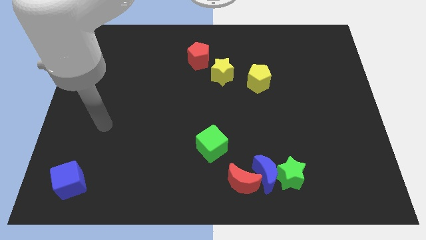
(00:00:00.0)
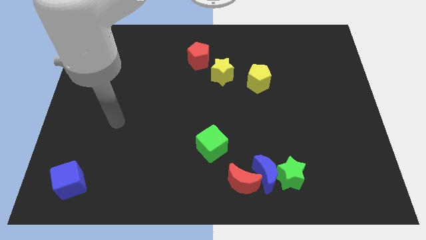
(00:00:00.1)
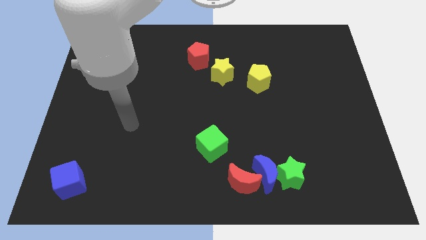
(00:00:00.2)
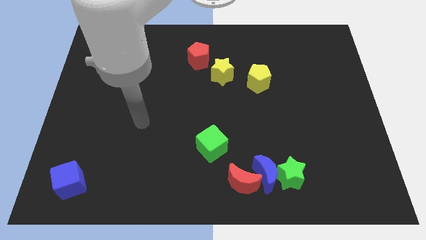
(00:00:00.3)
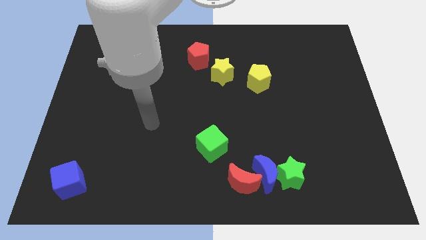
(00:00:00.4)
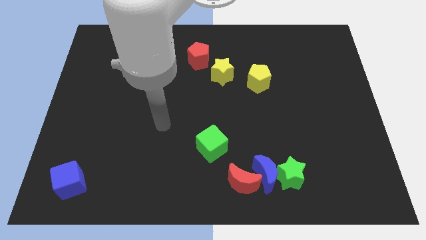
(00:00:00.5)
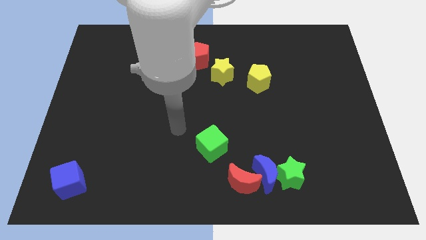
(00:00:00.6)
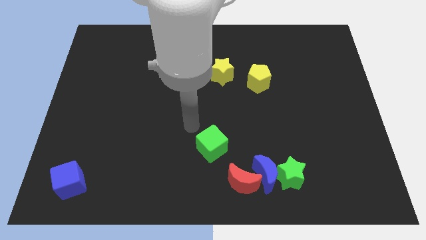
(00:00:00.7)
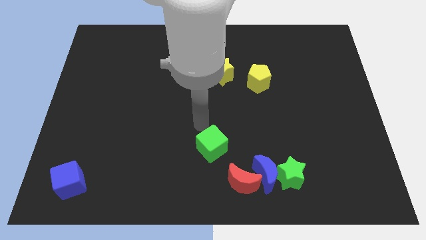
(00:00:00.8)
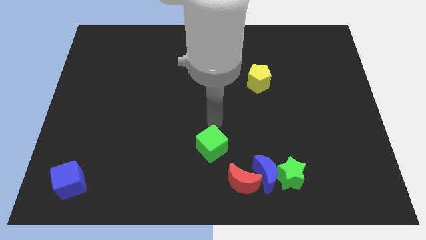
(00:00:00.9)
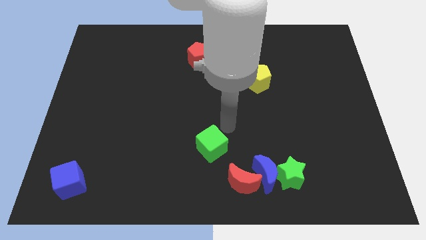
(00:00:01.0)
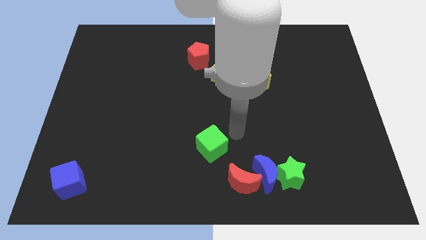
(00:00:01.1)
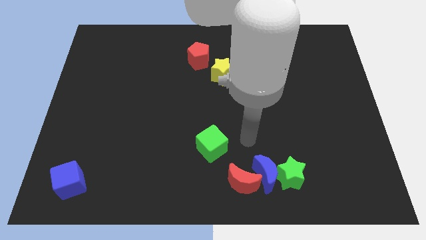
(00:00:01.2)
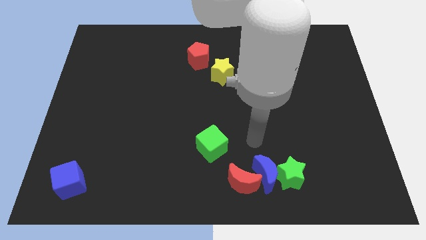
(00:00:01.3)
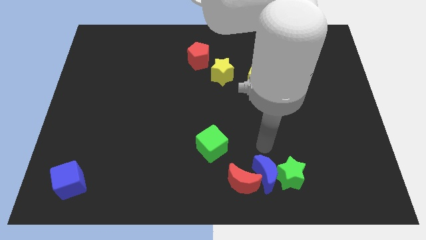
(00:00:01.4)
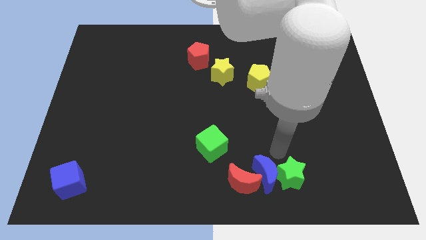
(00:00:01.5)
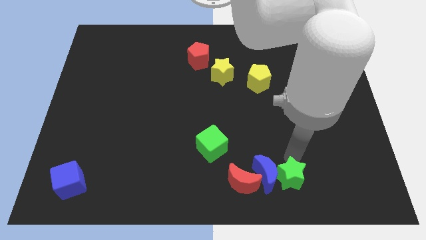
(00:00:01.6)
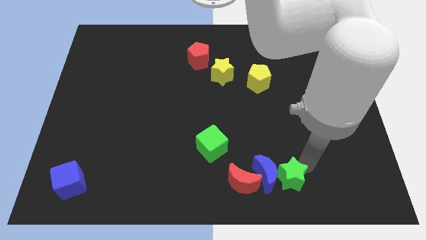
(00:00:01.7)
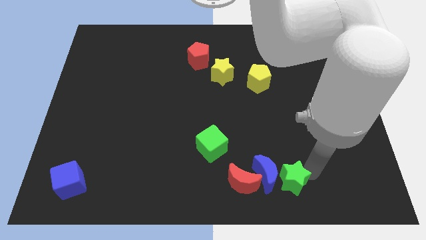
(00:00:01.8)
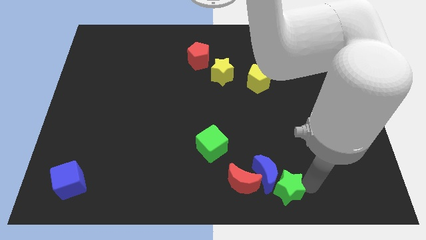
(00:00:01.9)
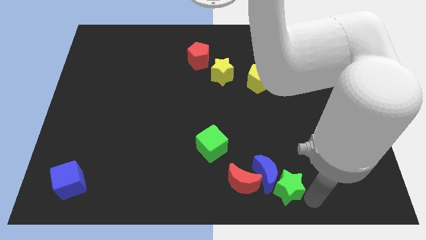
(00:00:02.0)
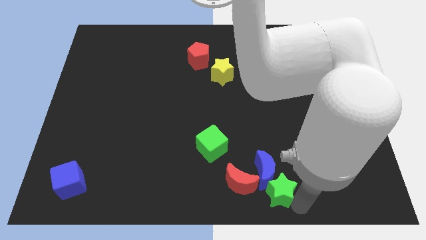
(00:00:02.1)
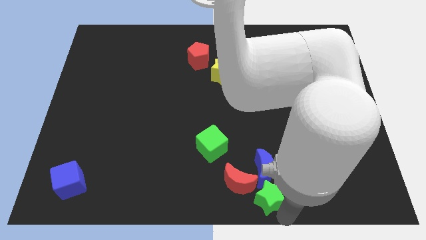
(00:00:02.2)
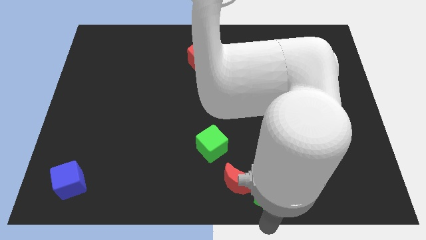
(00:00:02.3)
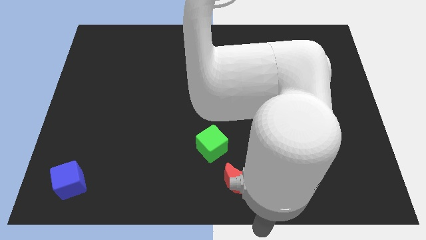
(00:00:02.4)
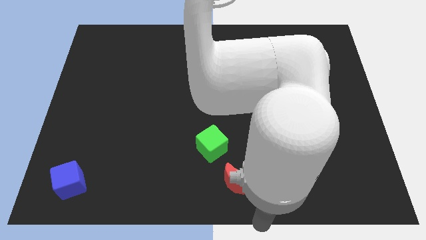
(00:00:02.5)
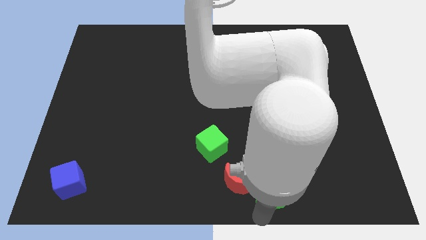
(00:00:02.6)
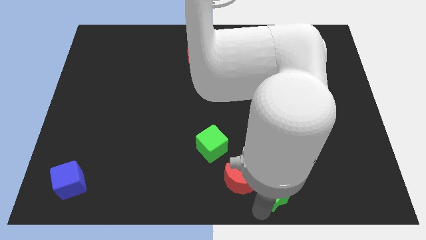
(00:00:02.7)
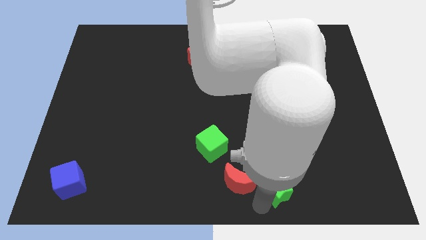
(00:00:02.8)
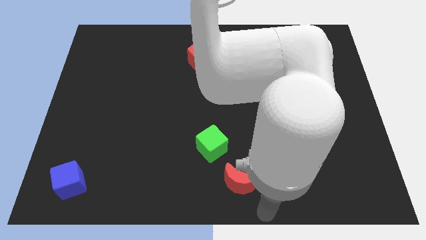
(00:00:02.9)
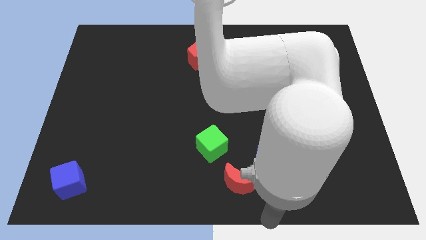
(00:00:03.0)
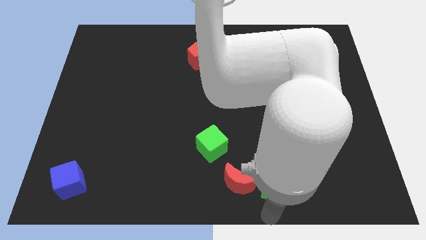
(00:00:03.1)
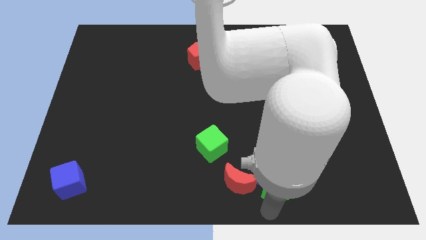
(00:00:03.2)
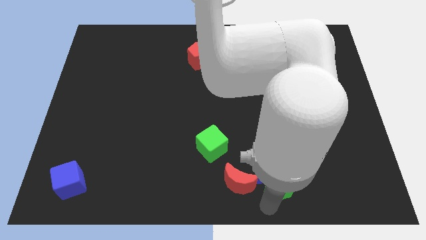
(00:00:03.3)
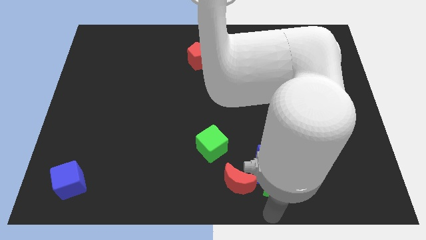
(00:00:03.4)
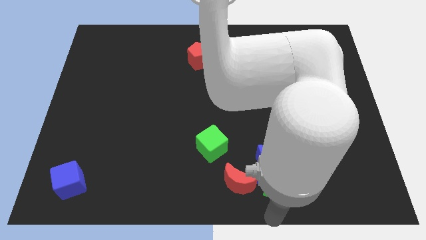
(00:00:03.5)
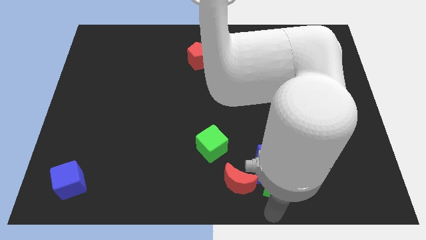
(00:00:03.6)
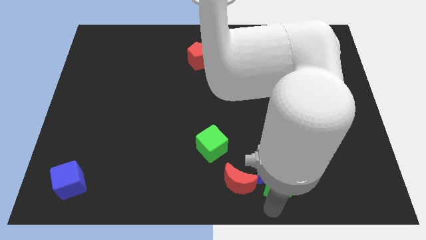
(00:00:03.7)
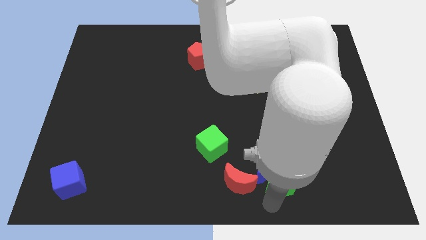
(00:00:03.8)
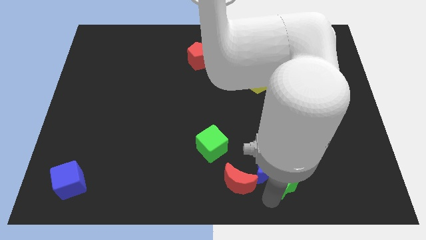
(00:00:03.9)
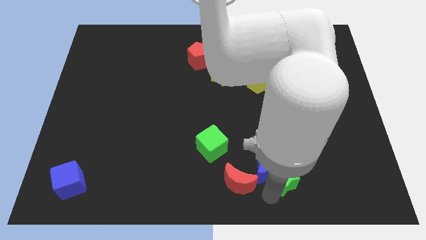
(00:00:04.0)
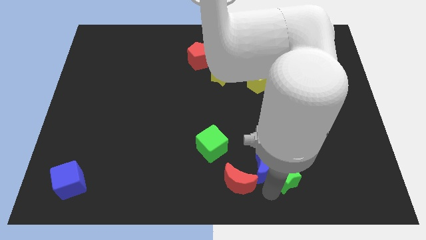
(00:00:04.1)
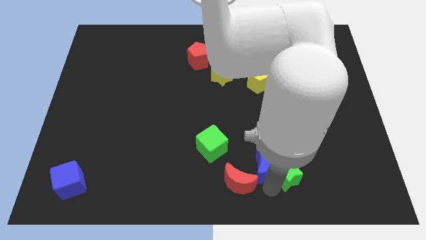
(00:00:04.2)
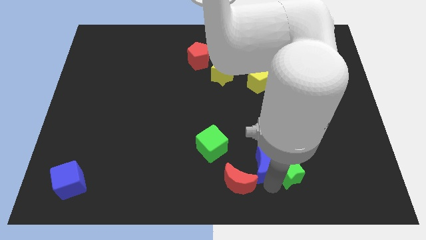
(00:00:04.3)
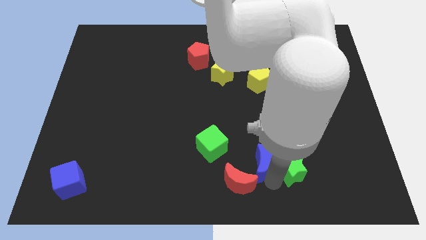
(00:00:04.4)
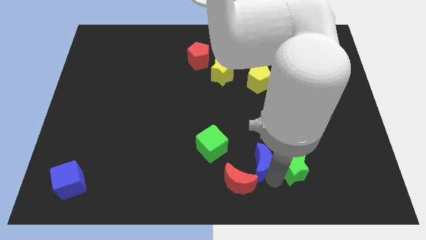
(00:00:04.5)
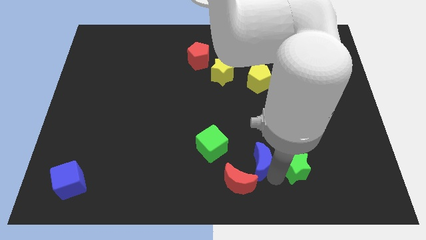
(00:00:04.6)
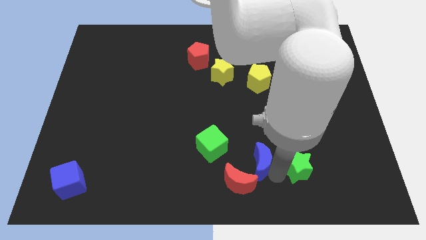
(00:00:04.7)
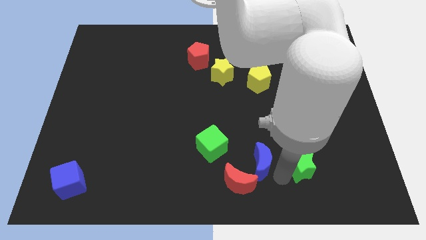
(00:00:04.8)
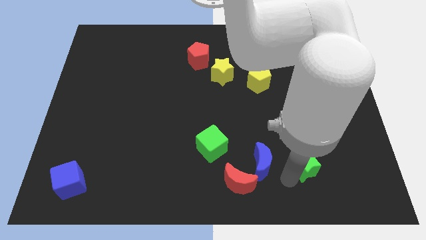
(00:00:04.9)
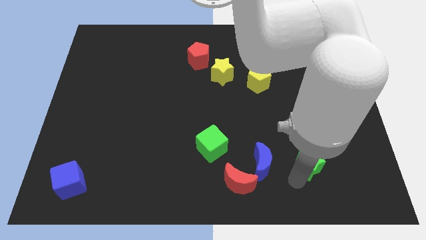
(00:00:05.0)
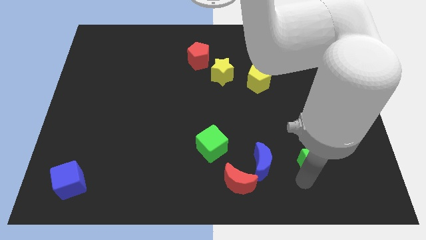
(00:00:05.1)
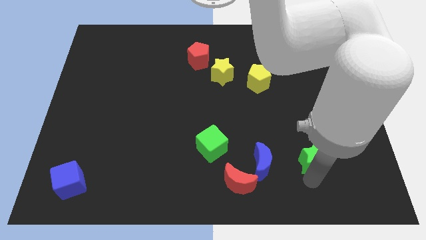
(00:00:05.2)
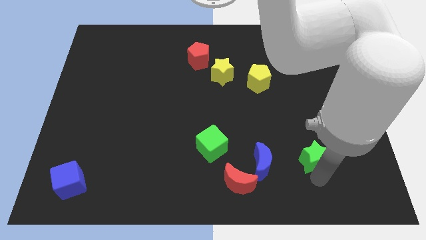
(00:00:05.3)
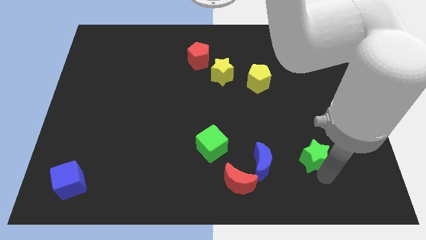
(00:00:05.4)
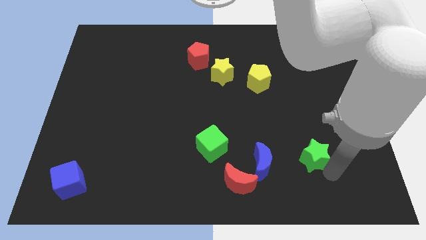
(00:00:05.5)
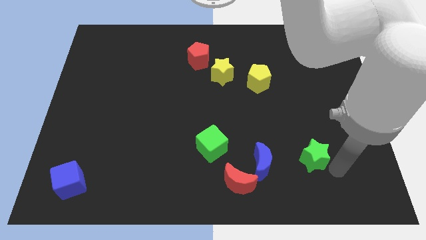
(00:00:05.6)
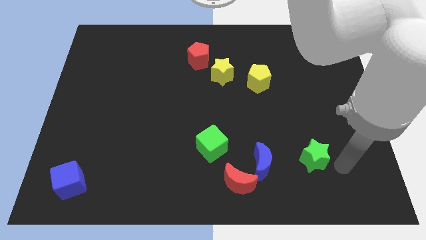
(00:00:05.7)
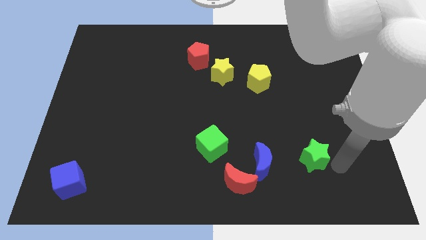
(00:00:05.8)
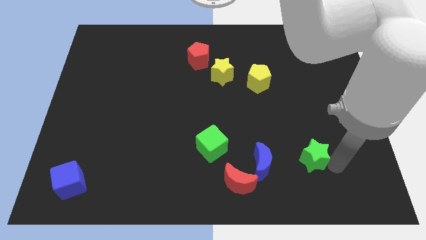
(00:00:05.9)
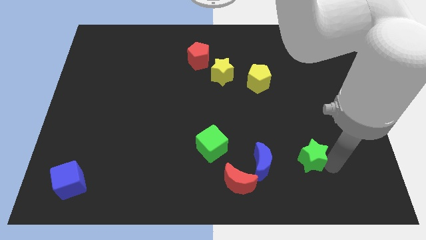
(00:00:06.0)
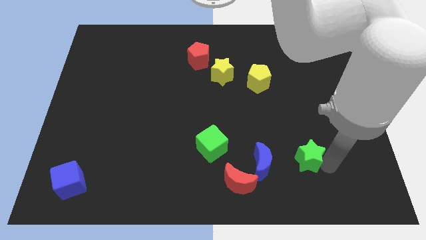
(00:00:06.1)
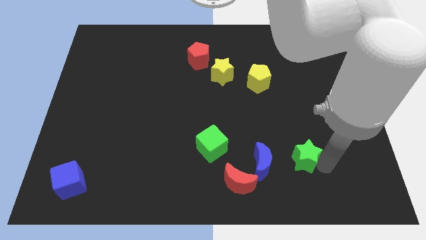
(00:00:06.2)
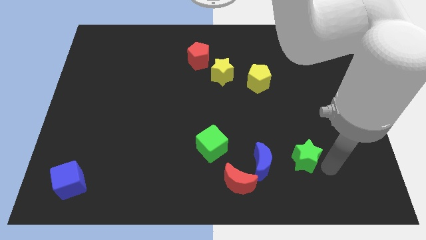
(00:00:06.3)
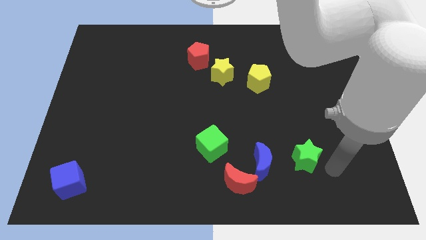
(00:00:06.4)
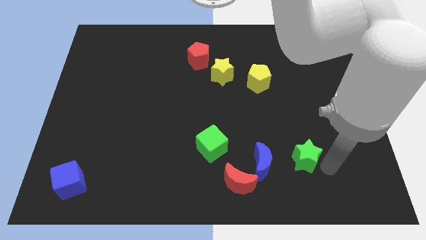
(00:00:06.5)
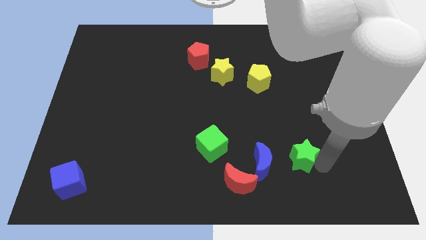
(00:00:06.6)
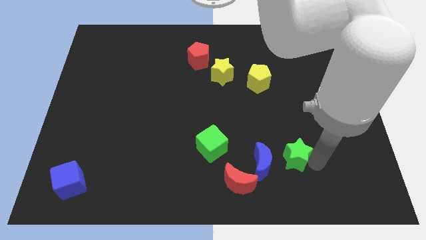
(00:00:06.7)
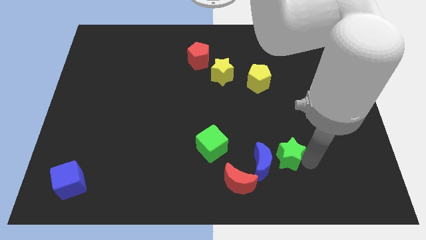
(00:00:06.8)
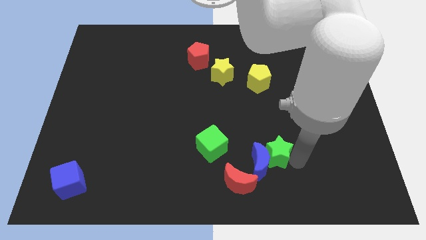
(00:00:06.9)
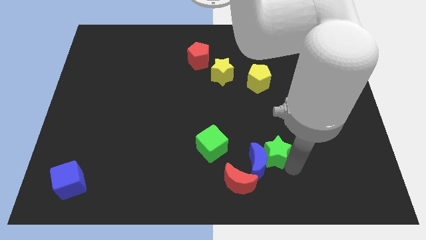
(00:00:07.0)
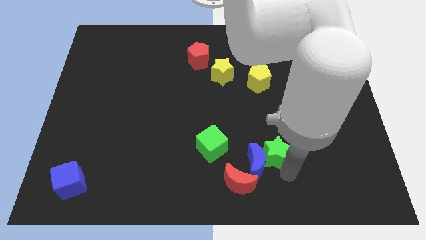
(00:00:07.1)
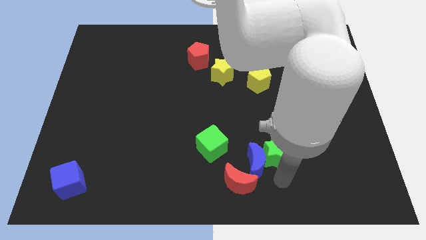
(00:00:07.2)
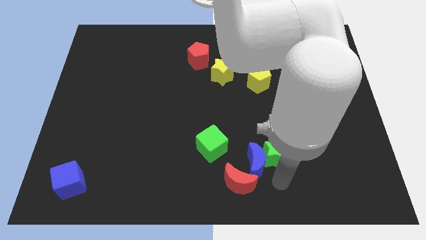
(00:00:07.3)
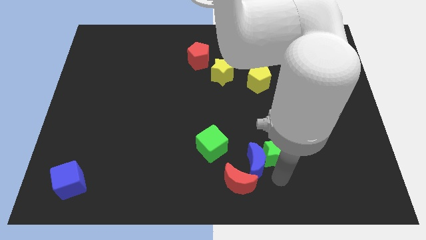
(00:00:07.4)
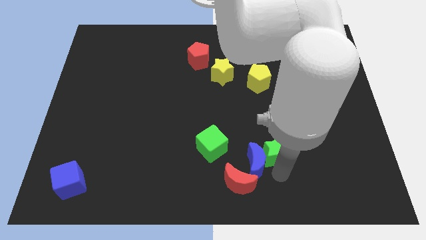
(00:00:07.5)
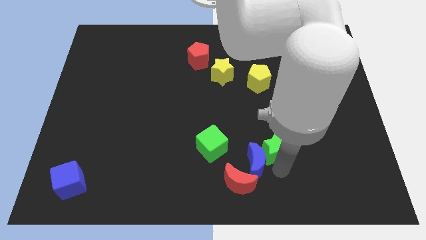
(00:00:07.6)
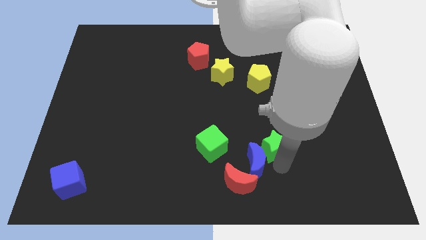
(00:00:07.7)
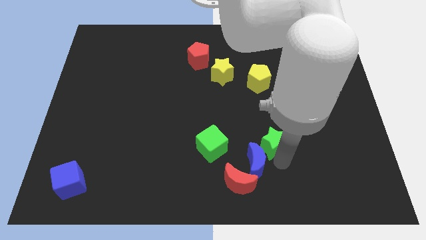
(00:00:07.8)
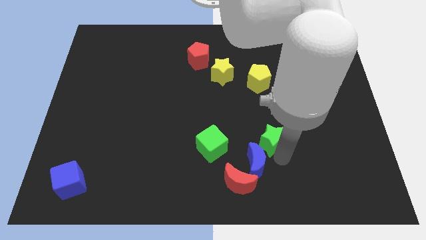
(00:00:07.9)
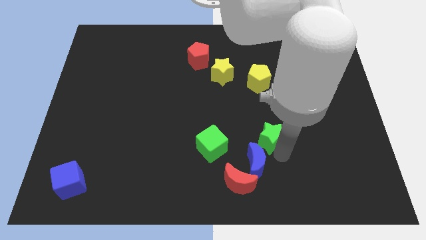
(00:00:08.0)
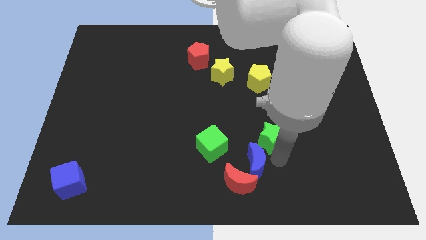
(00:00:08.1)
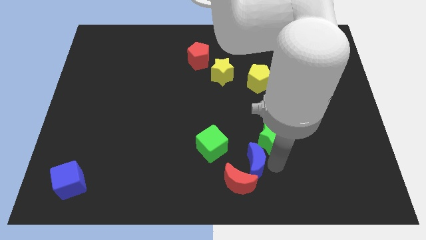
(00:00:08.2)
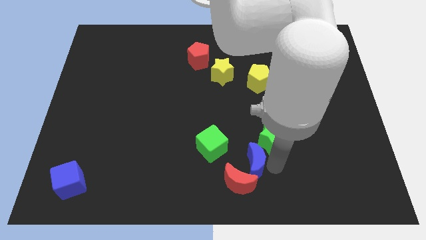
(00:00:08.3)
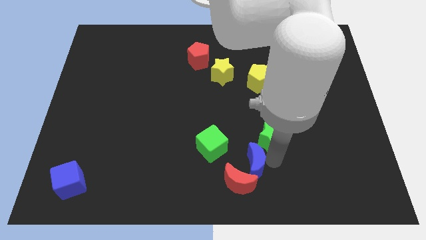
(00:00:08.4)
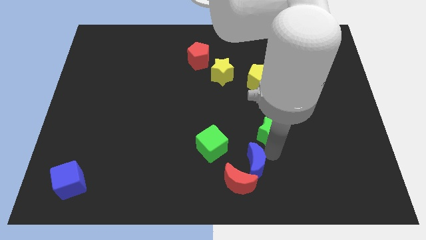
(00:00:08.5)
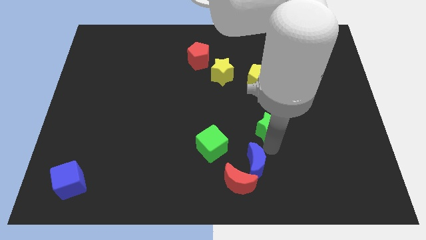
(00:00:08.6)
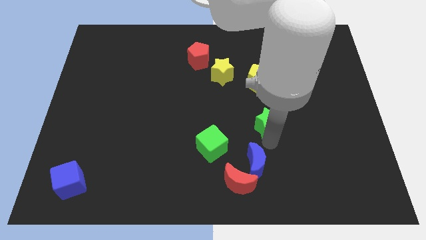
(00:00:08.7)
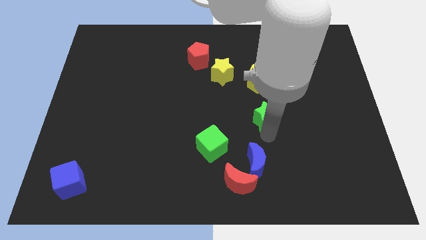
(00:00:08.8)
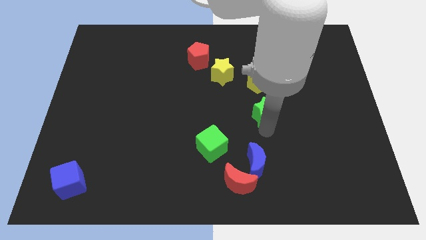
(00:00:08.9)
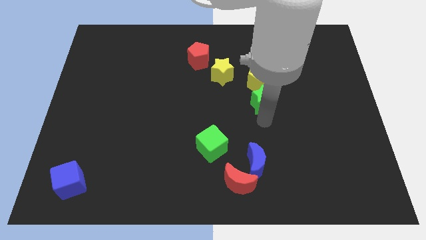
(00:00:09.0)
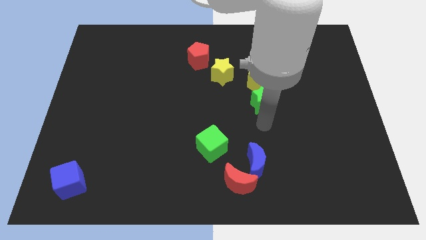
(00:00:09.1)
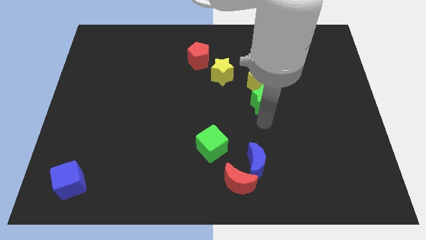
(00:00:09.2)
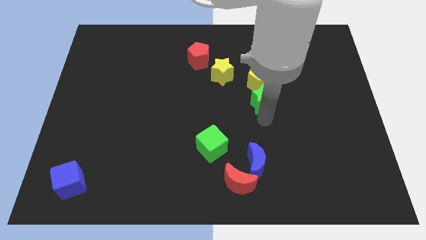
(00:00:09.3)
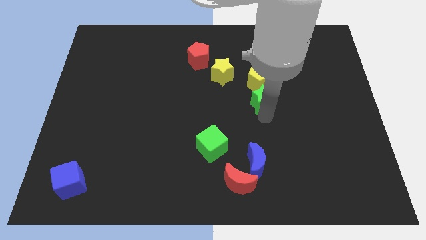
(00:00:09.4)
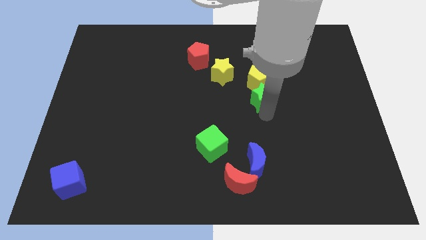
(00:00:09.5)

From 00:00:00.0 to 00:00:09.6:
push the green star next to the yellow pentagon
